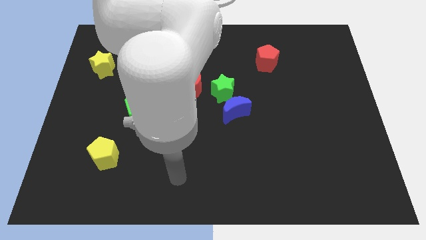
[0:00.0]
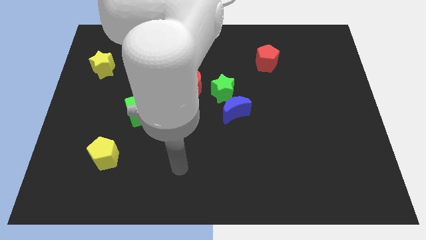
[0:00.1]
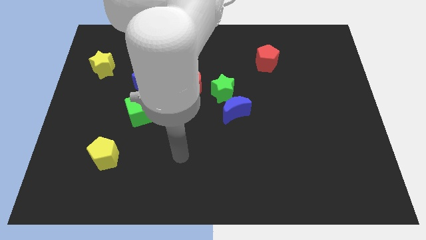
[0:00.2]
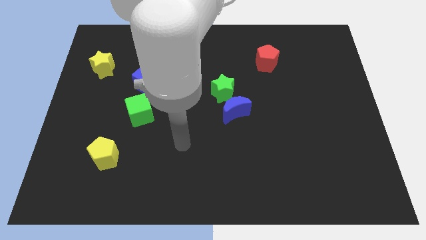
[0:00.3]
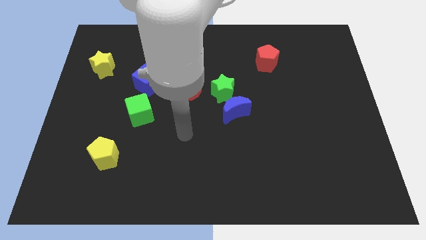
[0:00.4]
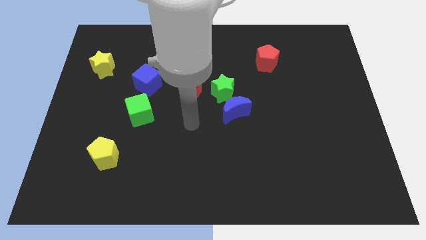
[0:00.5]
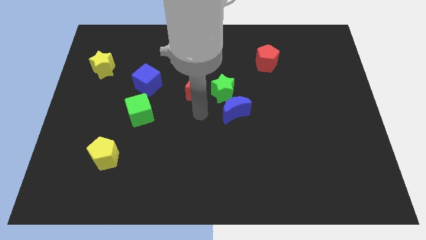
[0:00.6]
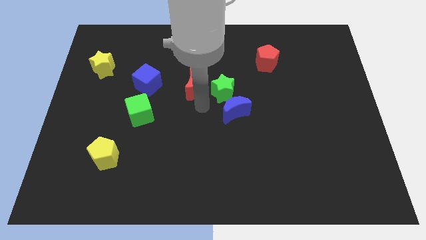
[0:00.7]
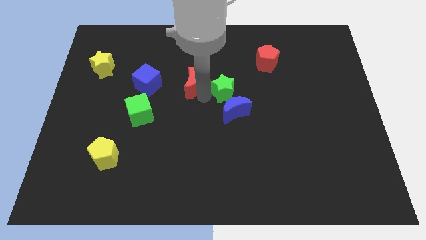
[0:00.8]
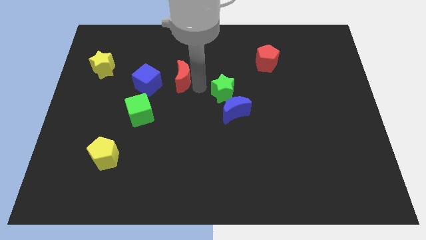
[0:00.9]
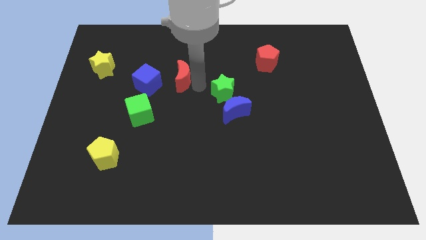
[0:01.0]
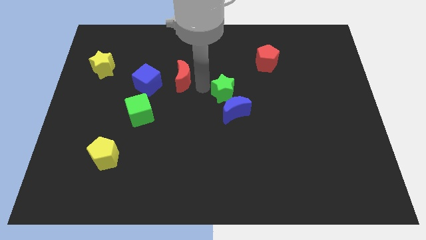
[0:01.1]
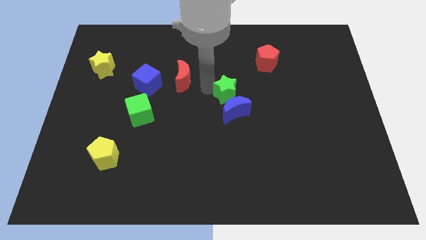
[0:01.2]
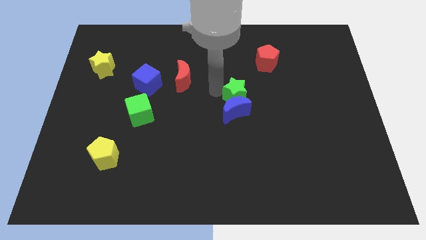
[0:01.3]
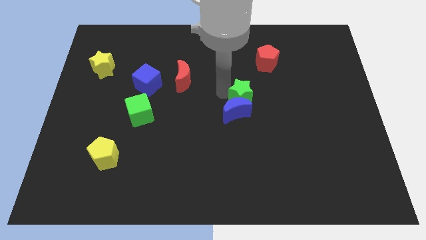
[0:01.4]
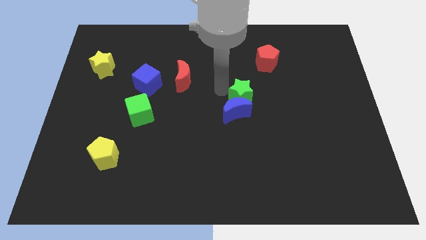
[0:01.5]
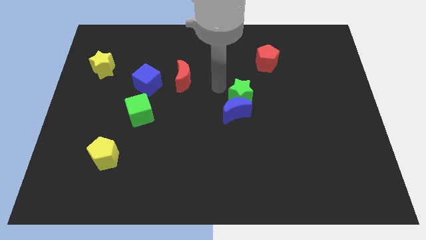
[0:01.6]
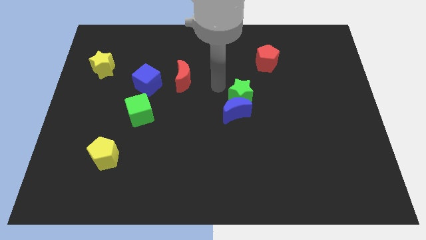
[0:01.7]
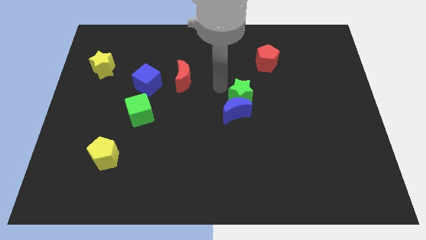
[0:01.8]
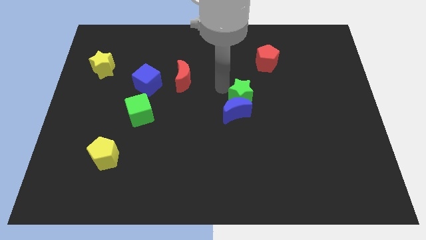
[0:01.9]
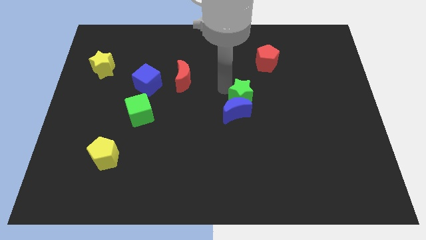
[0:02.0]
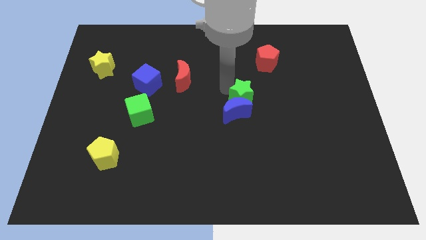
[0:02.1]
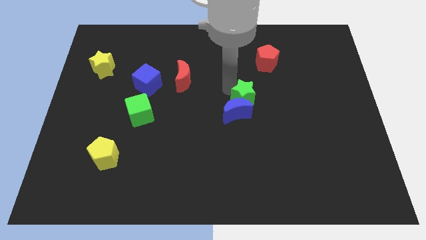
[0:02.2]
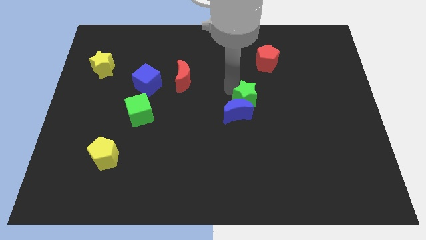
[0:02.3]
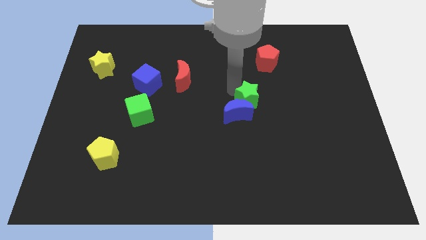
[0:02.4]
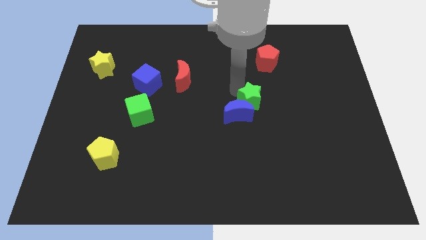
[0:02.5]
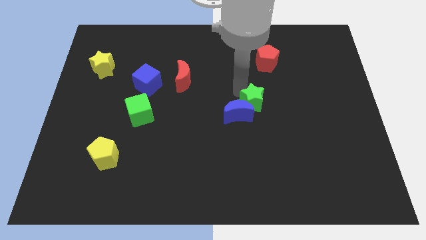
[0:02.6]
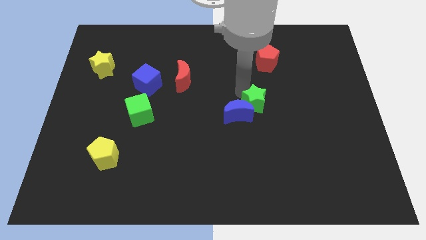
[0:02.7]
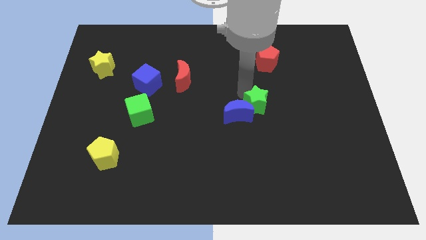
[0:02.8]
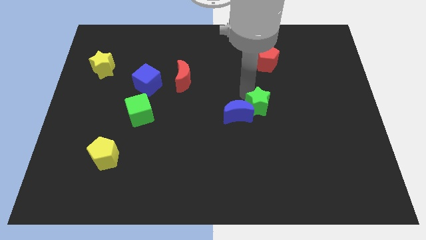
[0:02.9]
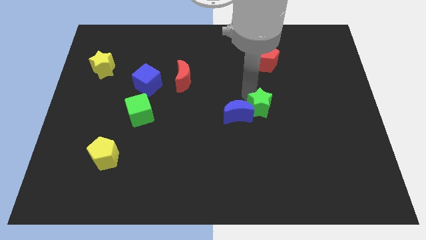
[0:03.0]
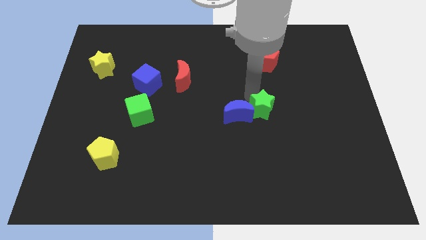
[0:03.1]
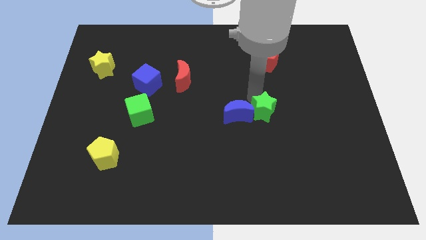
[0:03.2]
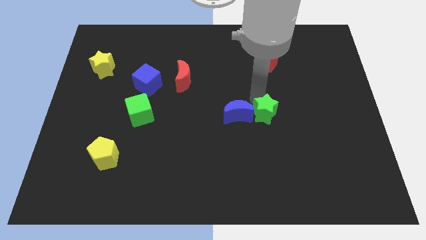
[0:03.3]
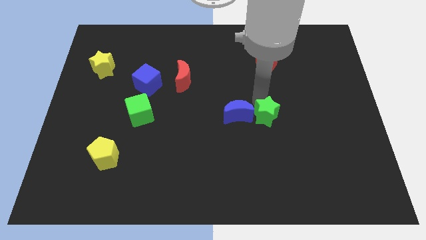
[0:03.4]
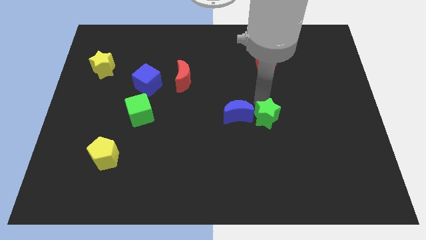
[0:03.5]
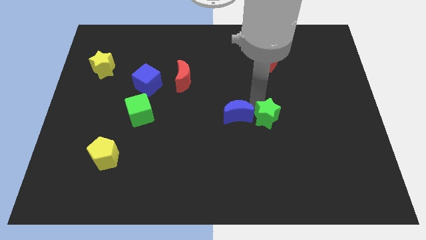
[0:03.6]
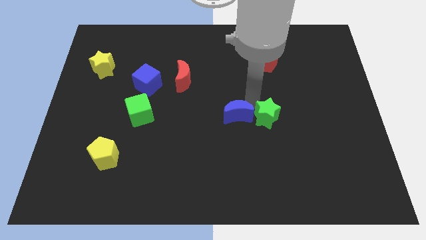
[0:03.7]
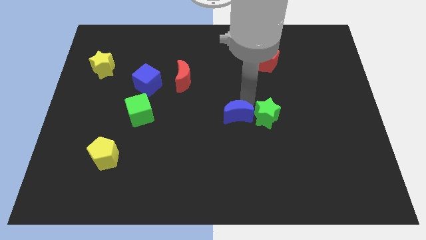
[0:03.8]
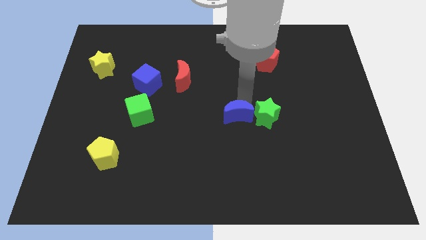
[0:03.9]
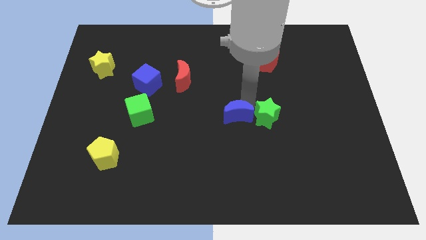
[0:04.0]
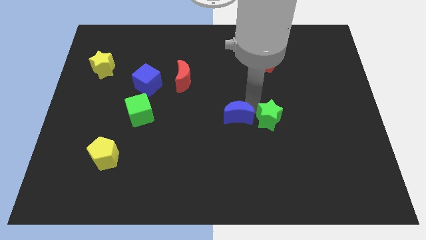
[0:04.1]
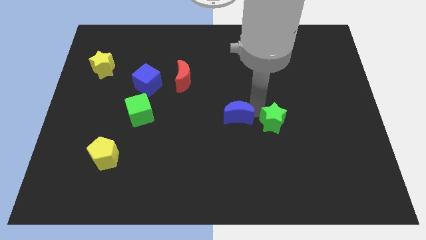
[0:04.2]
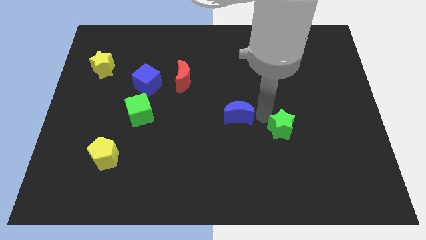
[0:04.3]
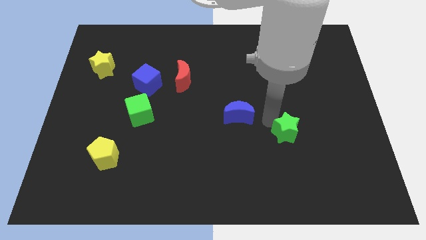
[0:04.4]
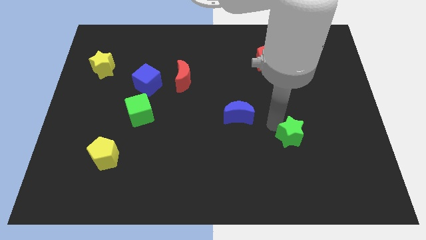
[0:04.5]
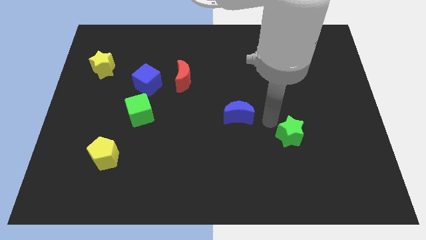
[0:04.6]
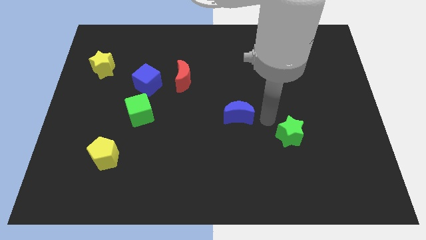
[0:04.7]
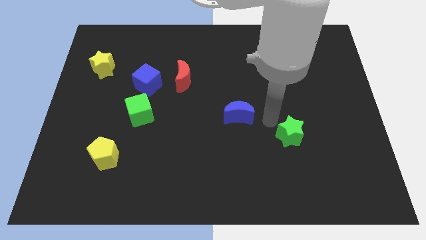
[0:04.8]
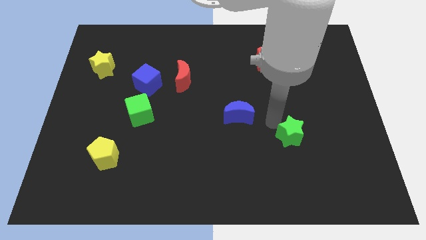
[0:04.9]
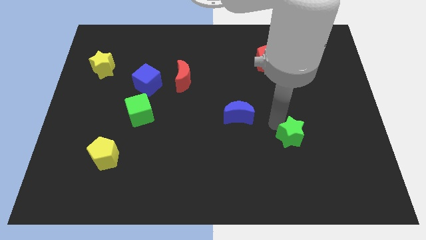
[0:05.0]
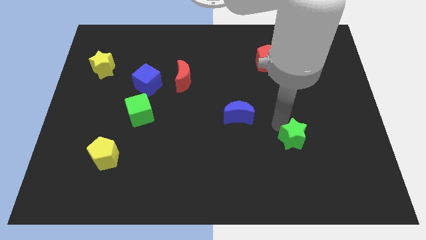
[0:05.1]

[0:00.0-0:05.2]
push the green star downwards and then right

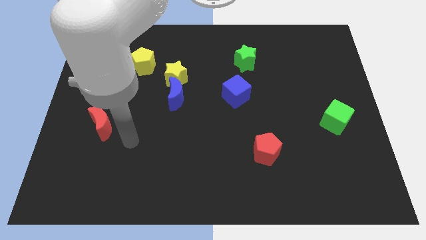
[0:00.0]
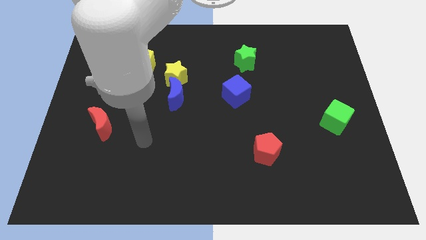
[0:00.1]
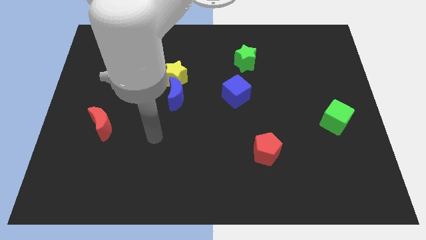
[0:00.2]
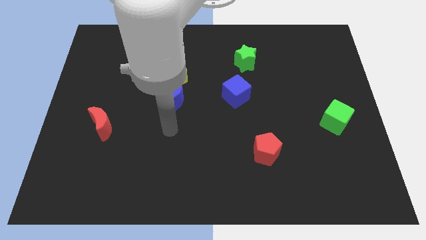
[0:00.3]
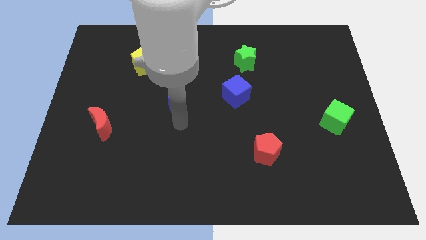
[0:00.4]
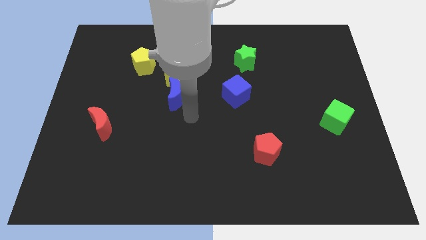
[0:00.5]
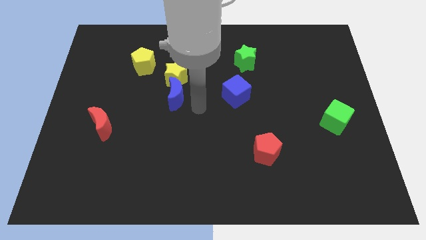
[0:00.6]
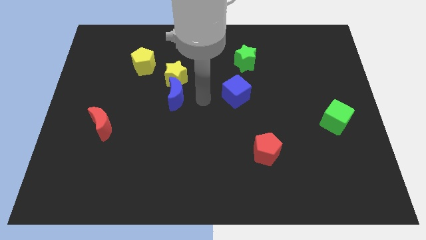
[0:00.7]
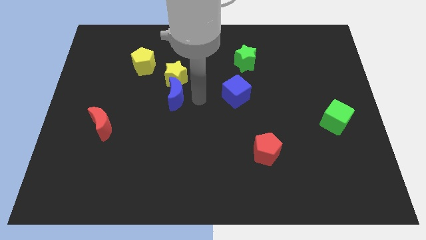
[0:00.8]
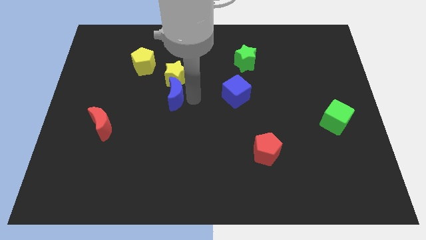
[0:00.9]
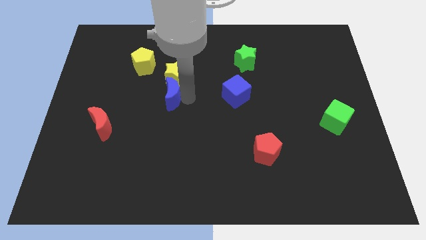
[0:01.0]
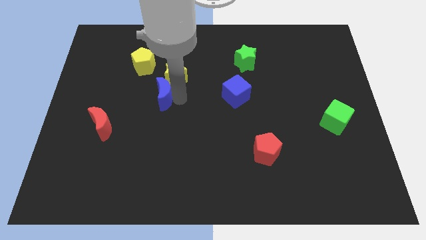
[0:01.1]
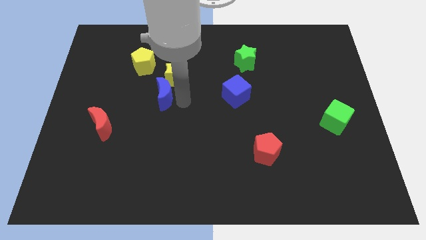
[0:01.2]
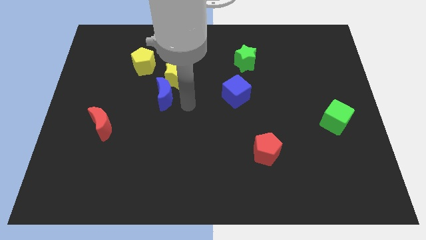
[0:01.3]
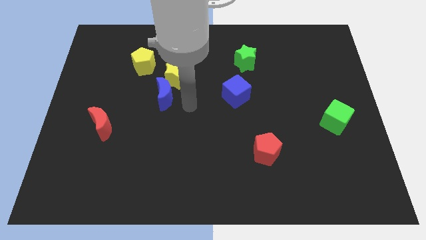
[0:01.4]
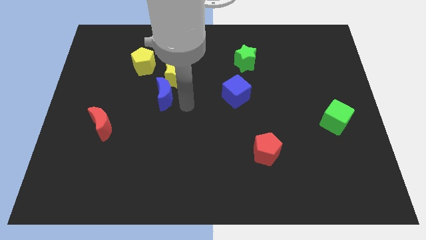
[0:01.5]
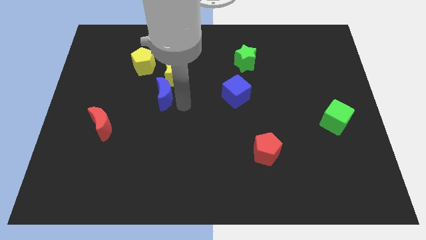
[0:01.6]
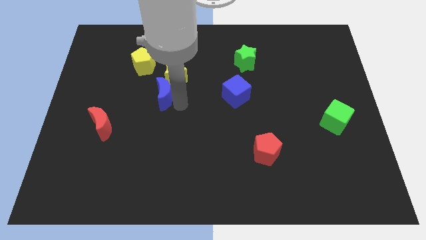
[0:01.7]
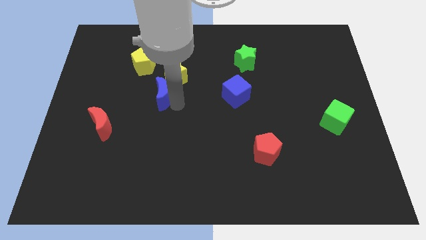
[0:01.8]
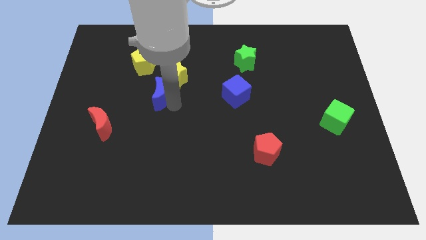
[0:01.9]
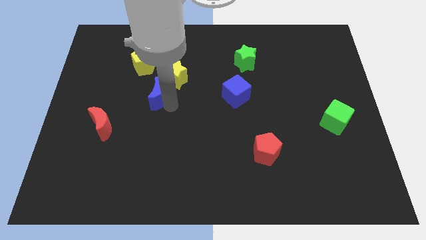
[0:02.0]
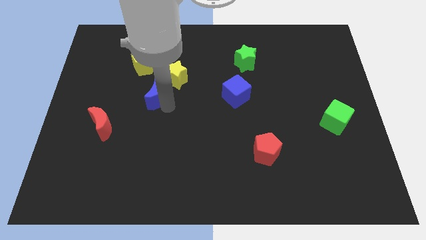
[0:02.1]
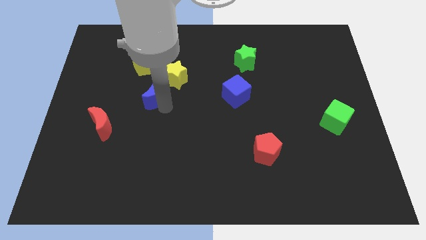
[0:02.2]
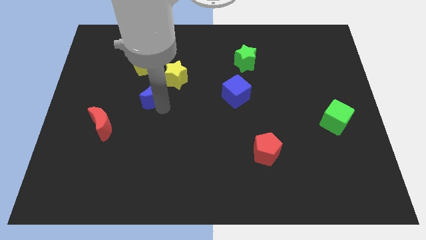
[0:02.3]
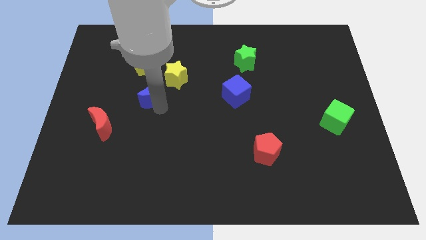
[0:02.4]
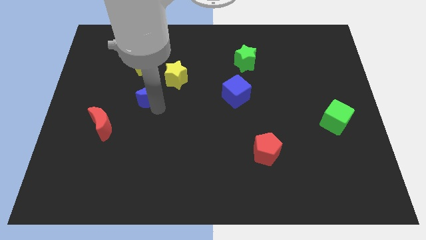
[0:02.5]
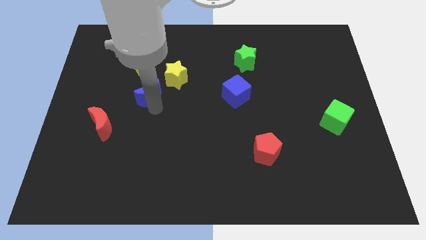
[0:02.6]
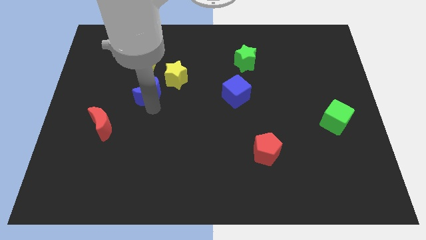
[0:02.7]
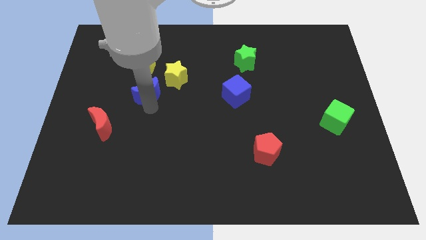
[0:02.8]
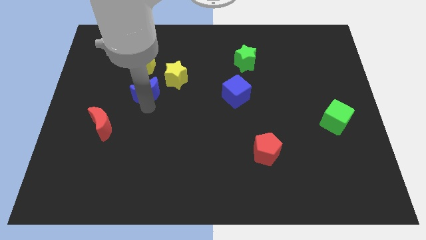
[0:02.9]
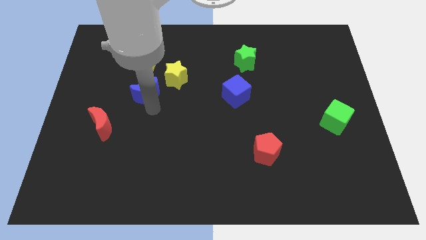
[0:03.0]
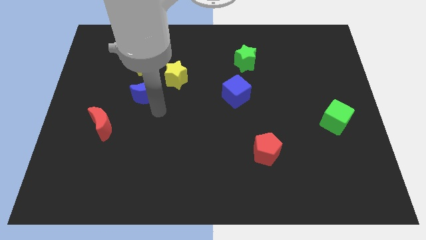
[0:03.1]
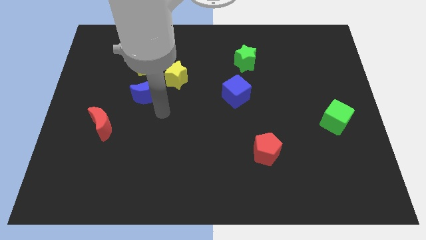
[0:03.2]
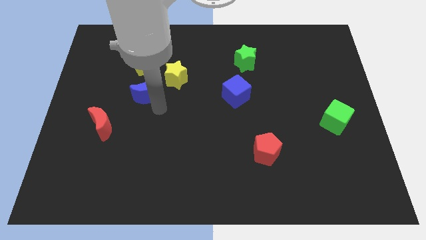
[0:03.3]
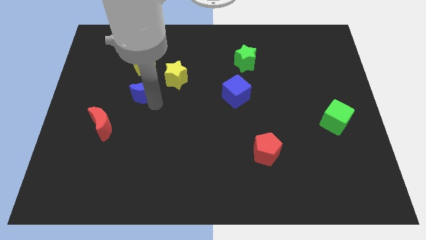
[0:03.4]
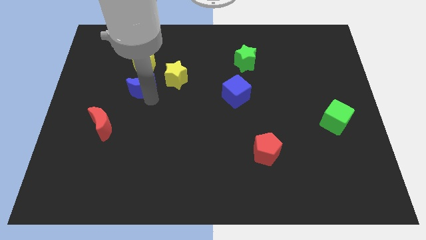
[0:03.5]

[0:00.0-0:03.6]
move the blue moon slightly upwards and left diagonally
